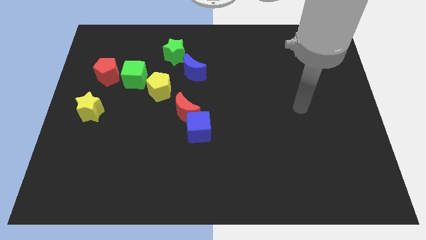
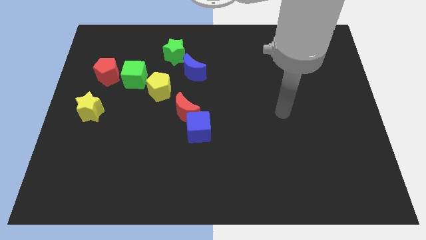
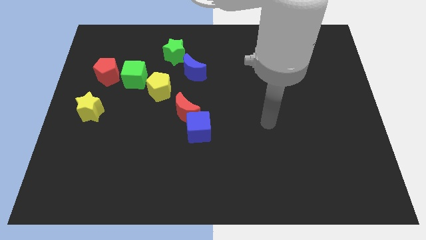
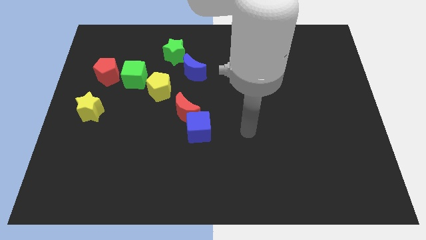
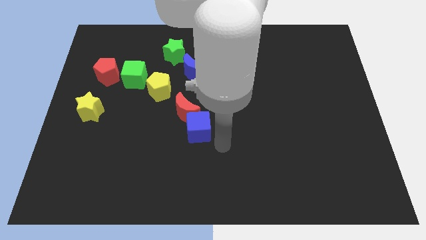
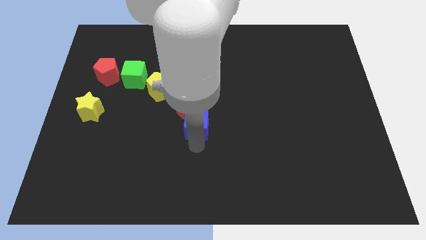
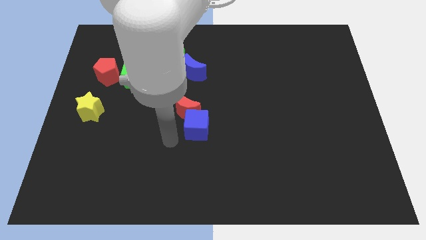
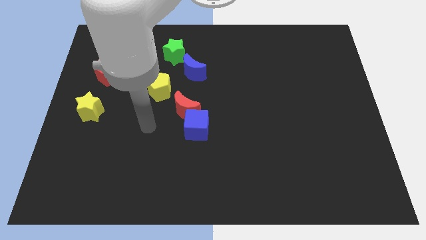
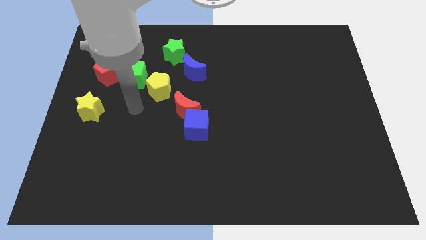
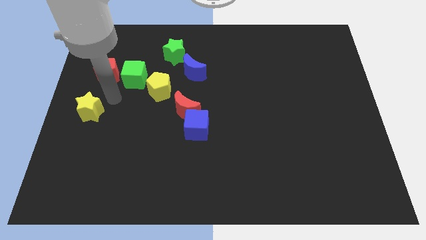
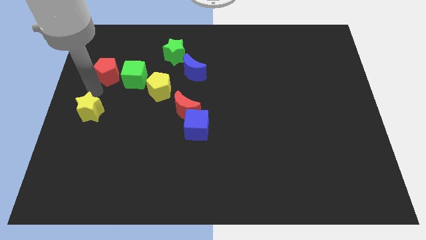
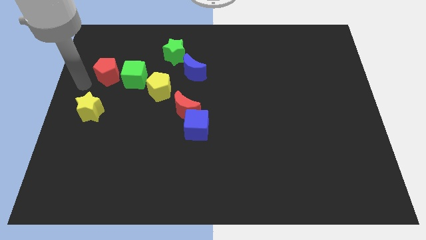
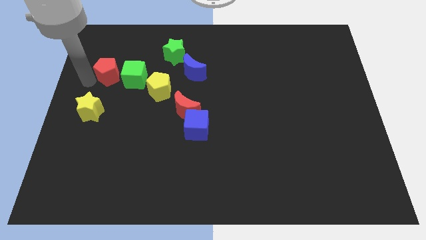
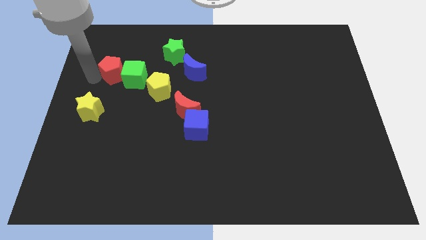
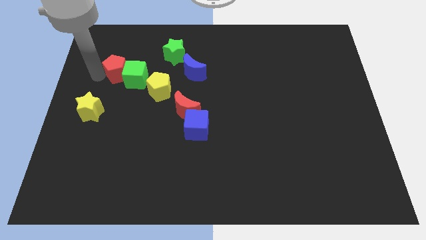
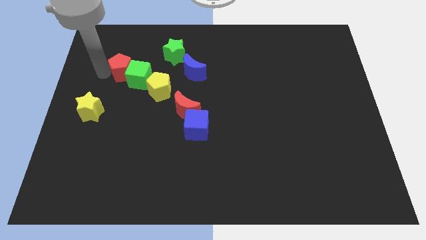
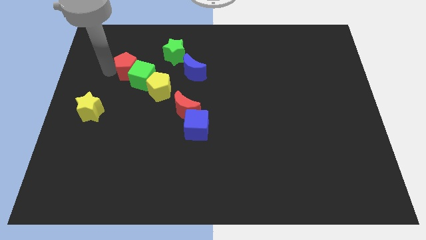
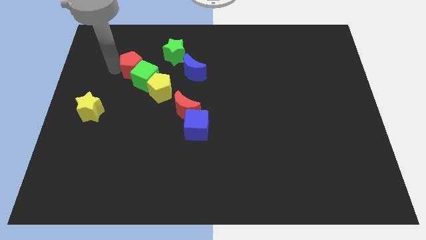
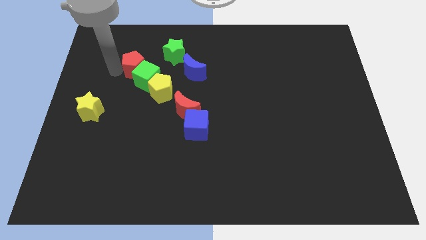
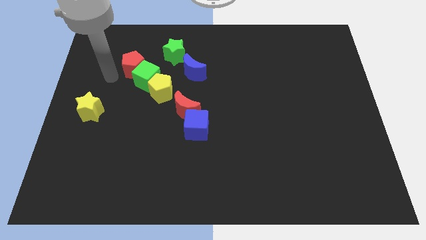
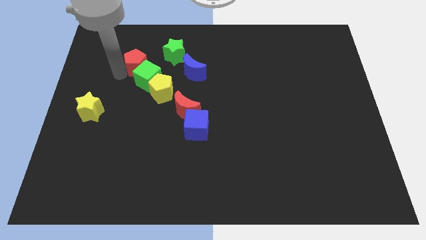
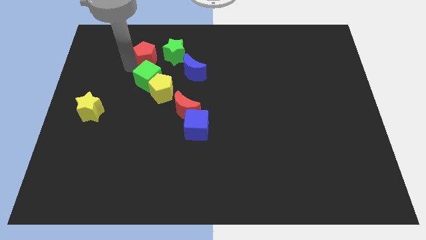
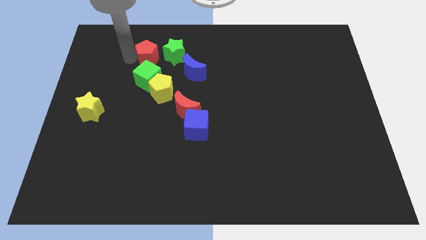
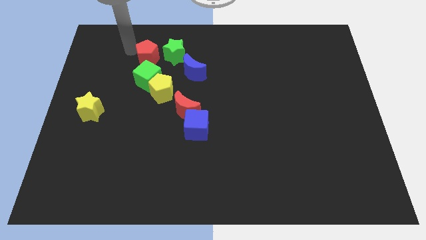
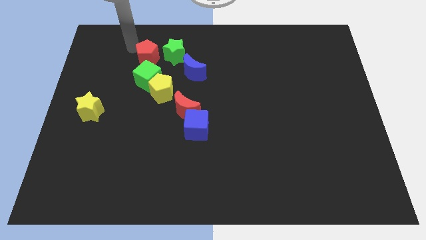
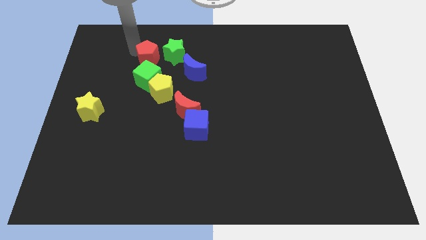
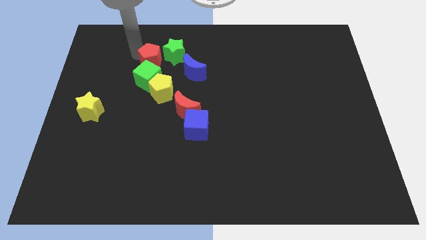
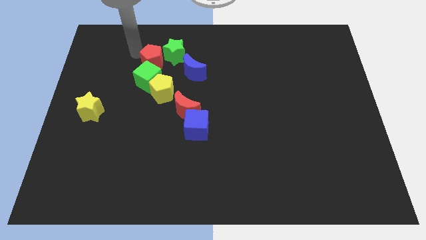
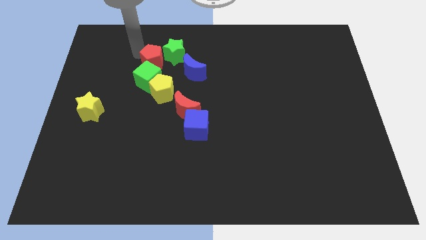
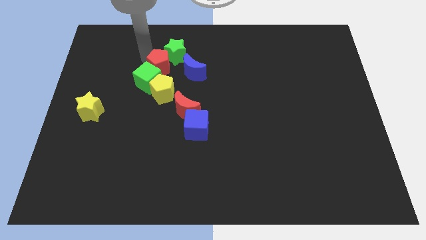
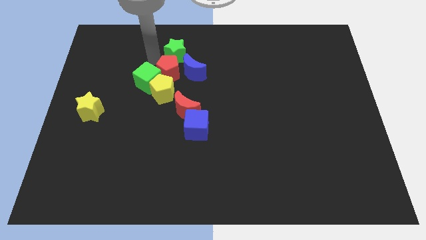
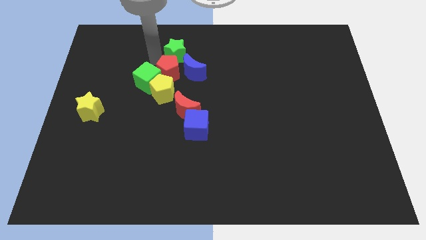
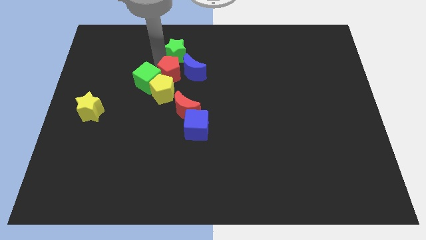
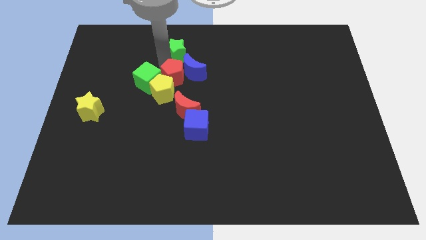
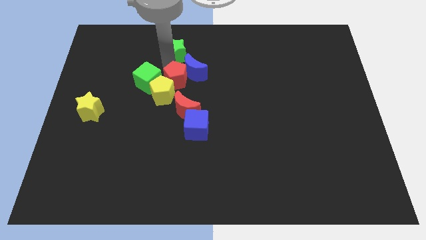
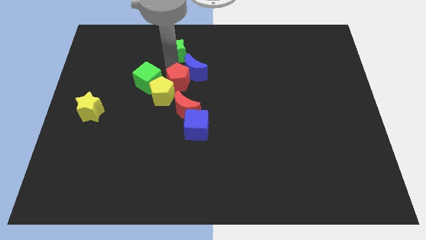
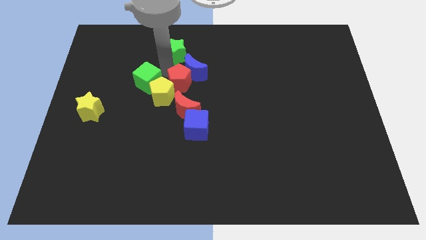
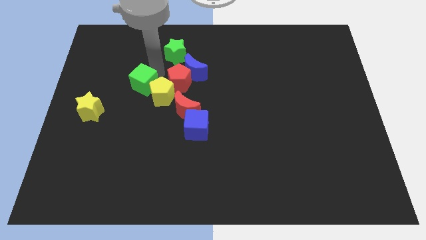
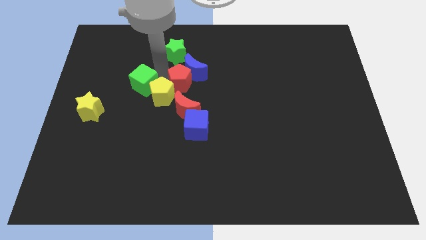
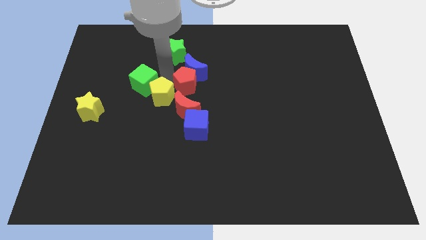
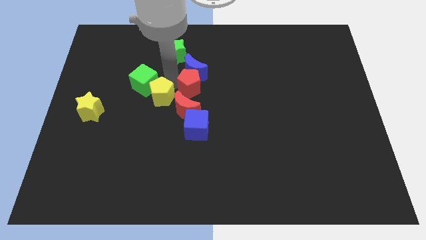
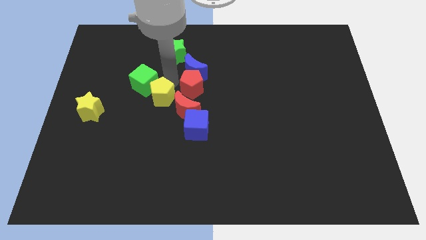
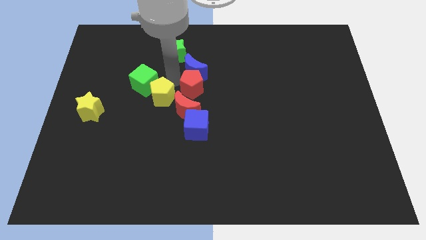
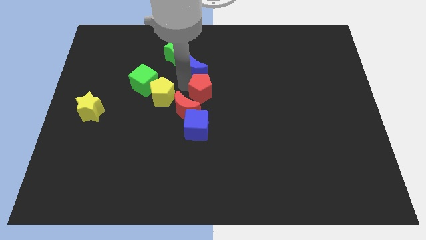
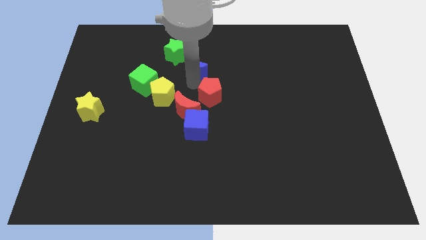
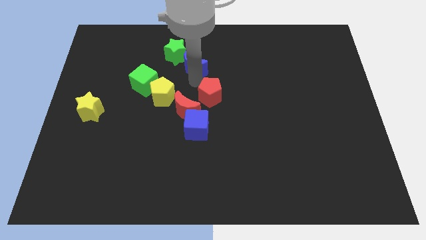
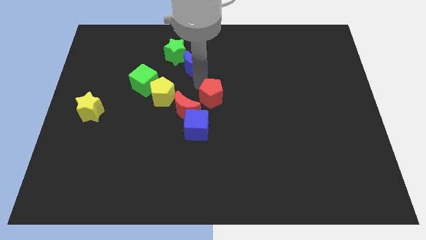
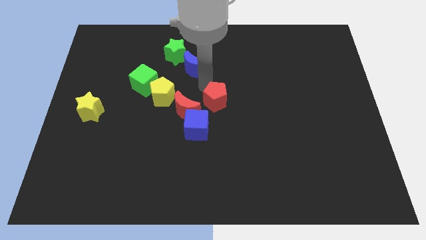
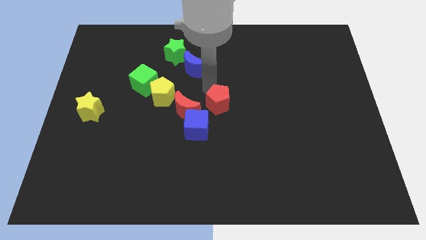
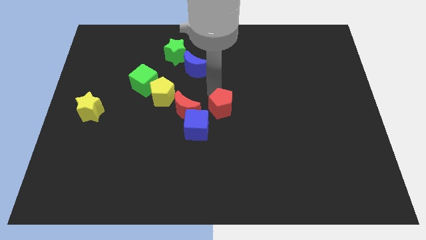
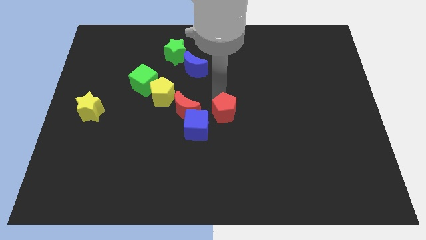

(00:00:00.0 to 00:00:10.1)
put the red pentagon to the right of the blue cube

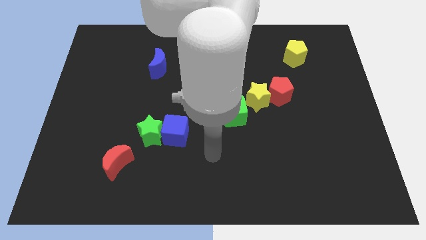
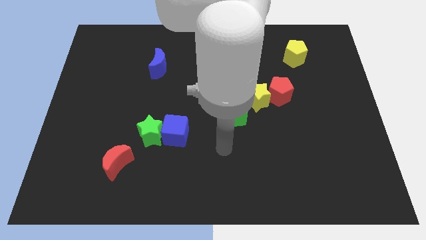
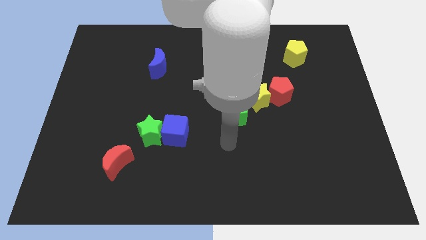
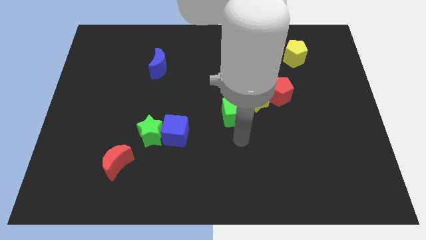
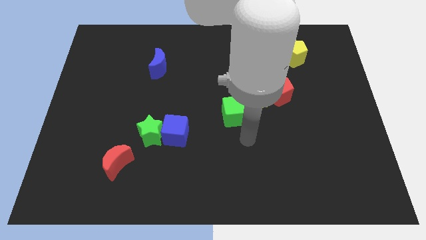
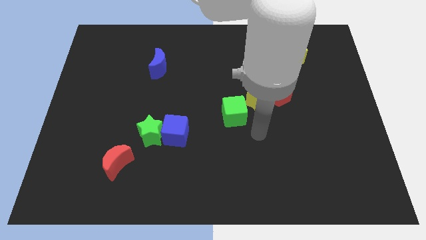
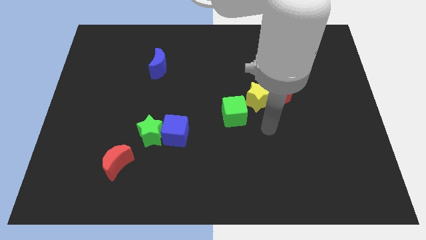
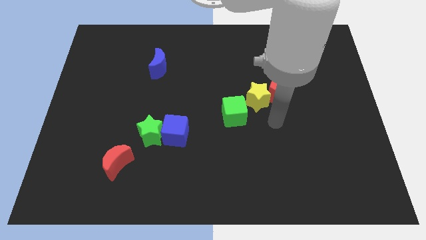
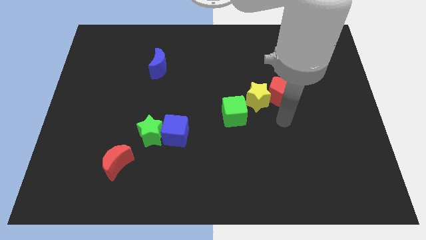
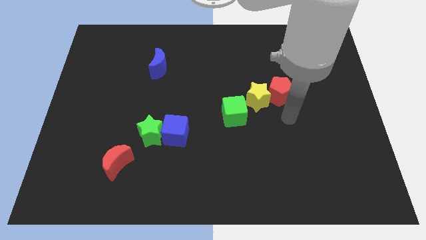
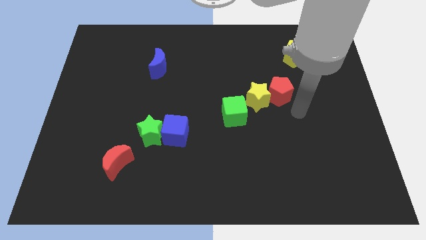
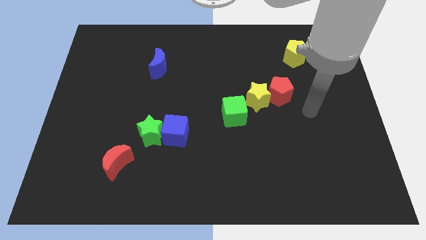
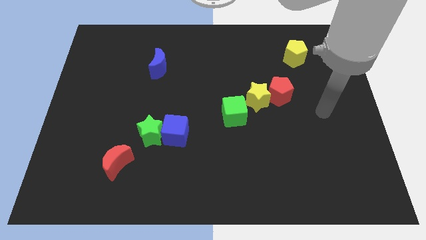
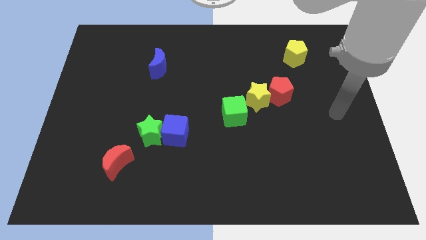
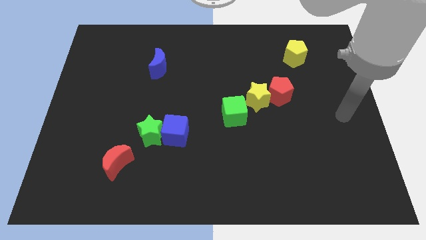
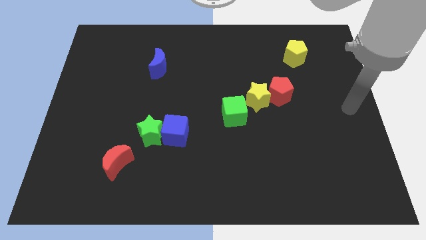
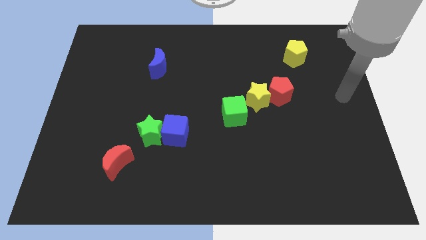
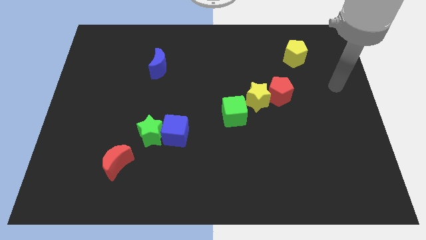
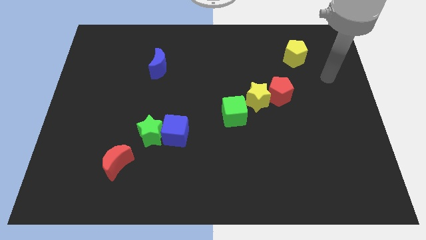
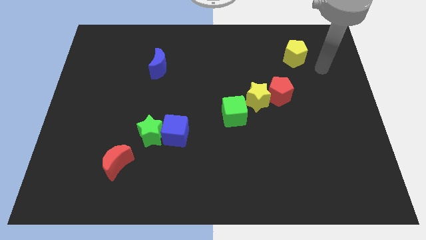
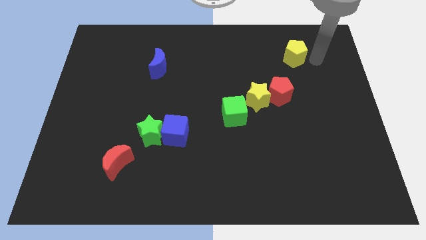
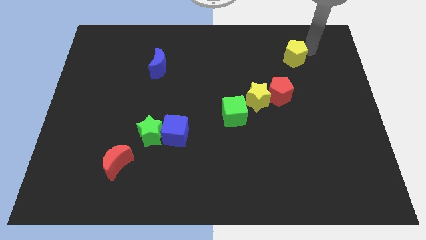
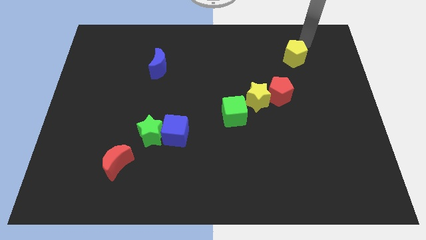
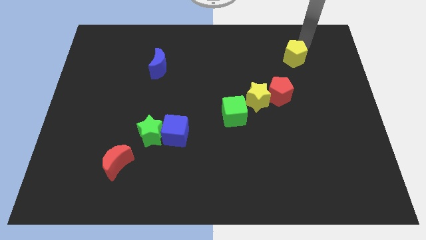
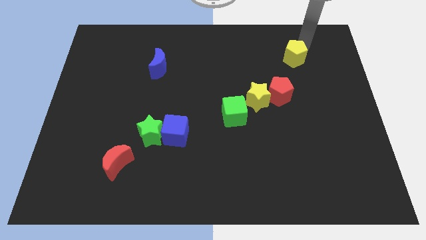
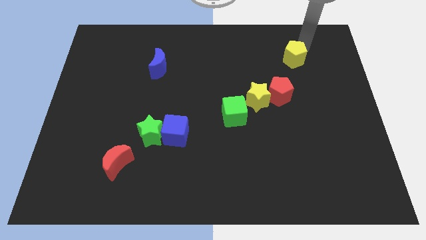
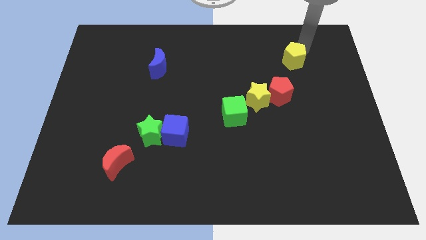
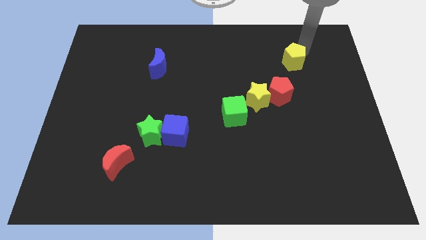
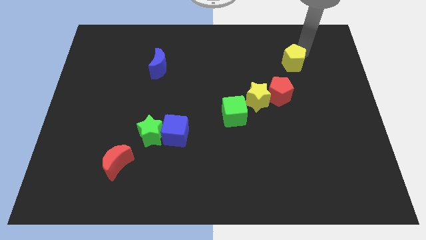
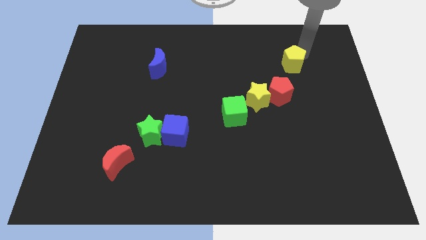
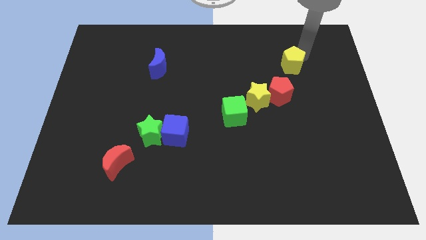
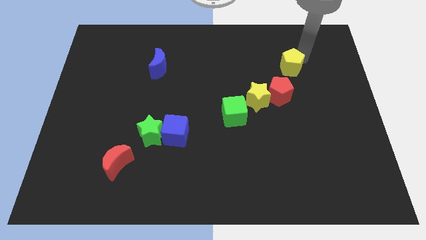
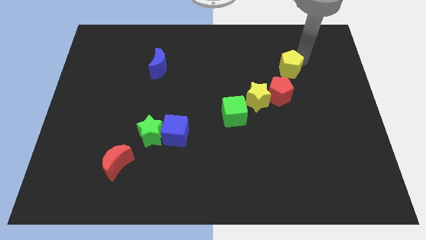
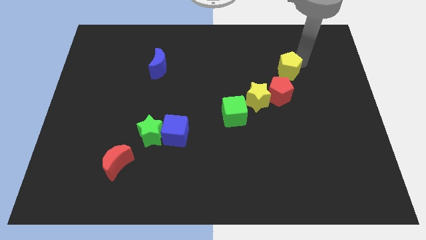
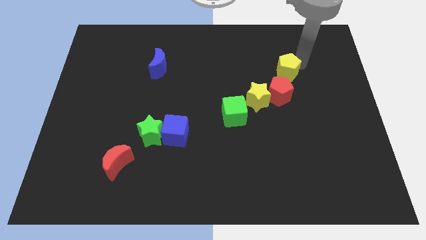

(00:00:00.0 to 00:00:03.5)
move the yellow pentagon to the top right side of the yellow star
